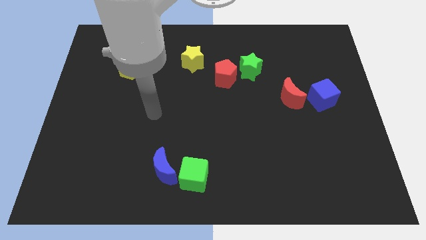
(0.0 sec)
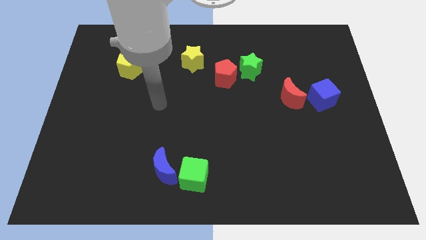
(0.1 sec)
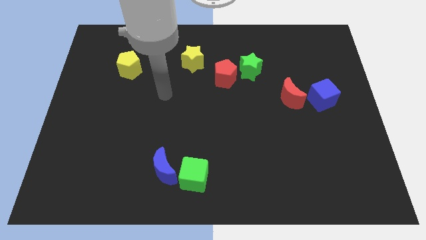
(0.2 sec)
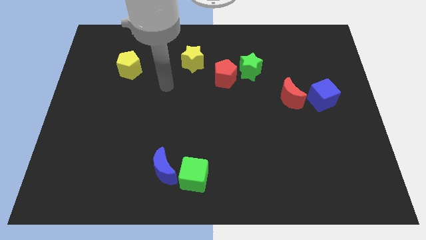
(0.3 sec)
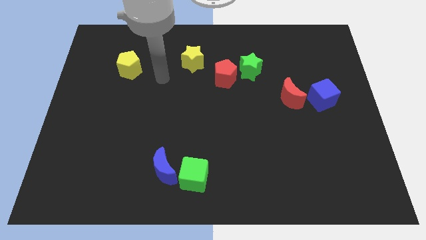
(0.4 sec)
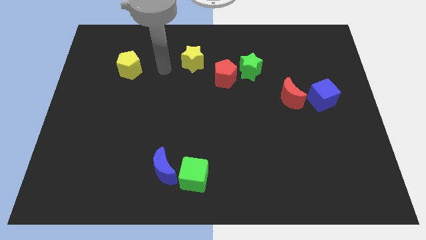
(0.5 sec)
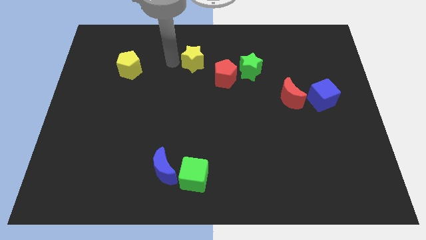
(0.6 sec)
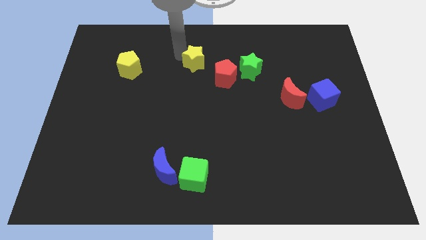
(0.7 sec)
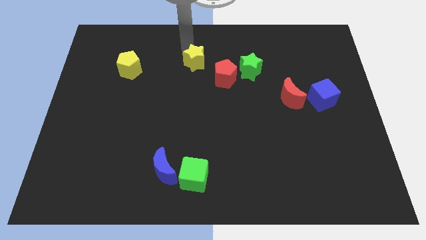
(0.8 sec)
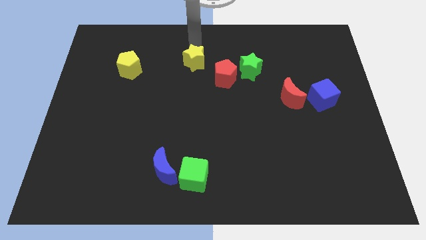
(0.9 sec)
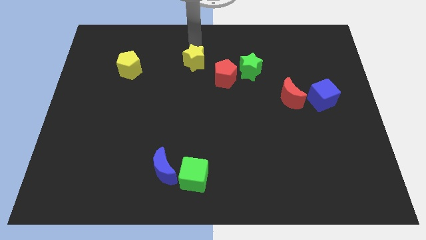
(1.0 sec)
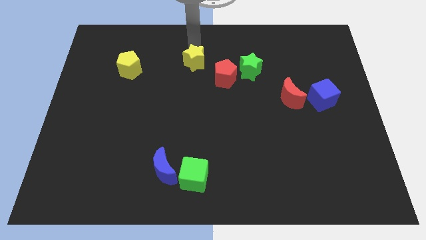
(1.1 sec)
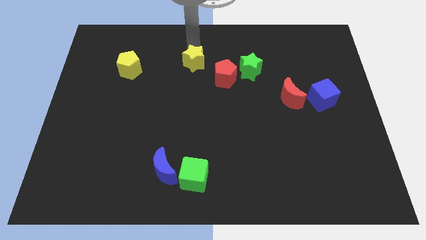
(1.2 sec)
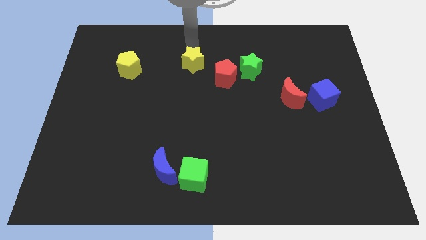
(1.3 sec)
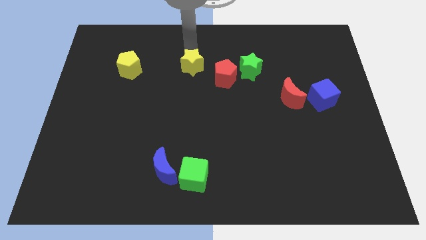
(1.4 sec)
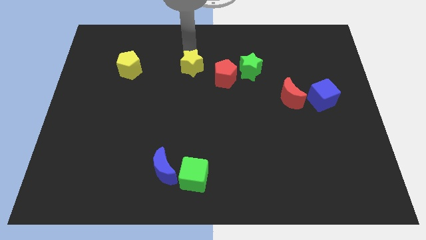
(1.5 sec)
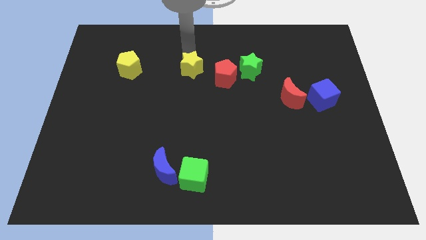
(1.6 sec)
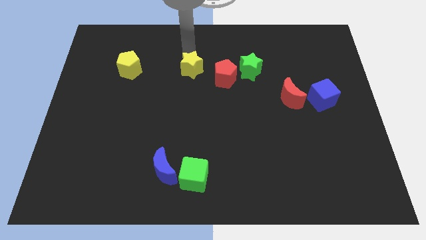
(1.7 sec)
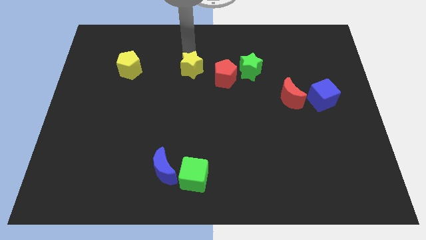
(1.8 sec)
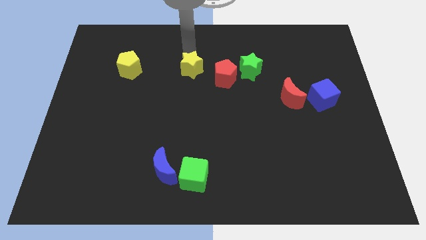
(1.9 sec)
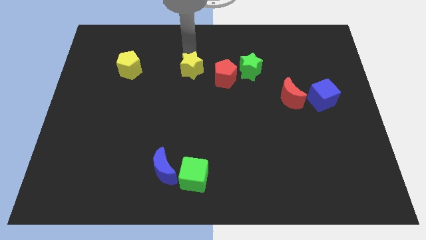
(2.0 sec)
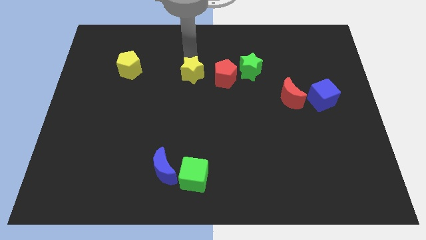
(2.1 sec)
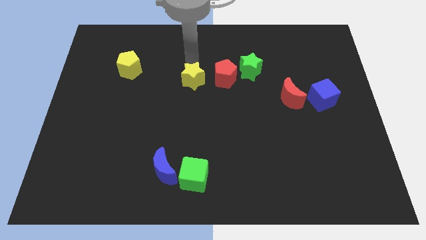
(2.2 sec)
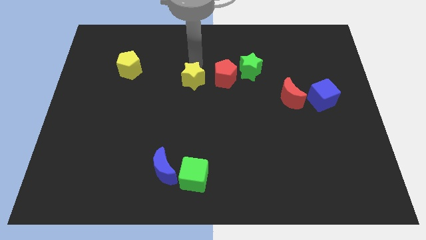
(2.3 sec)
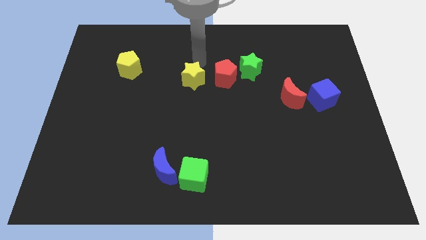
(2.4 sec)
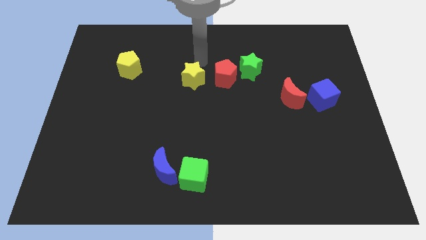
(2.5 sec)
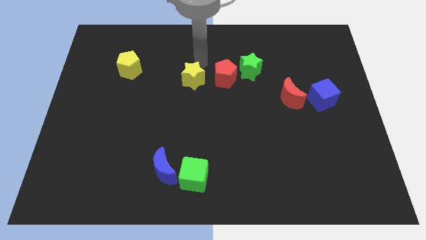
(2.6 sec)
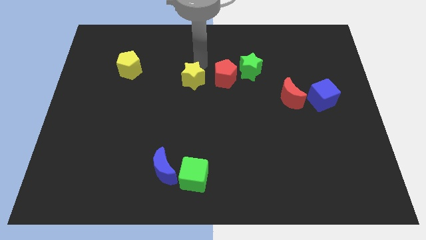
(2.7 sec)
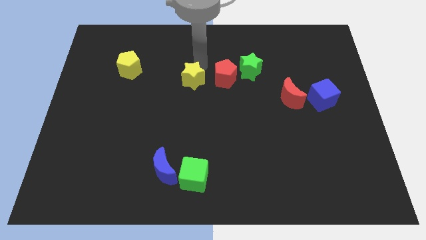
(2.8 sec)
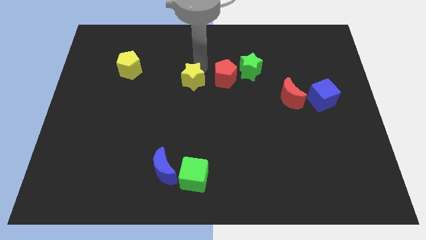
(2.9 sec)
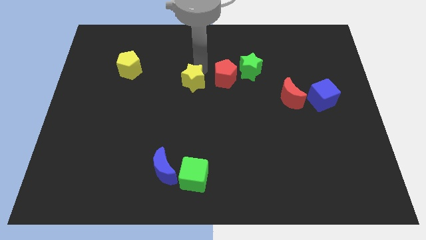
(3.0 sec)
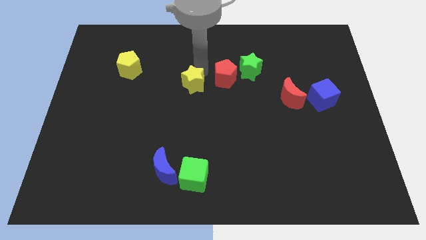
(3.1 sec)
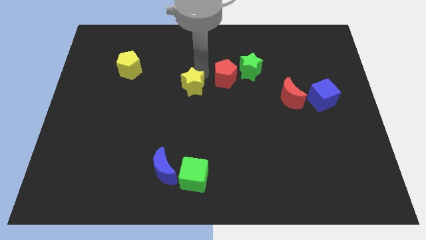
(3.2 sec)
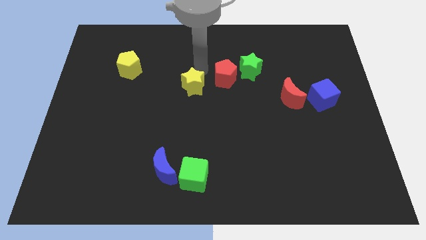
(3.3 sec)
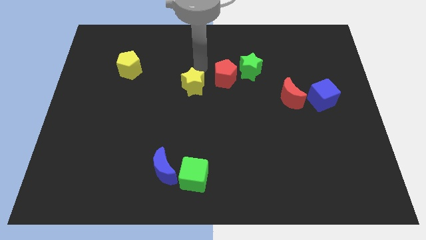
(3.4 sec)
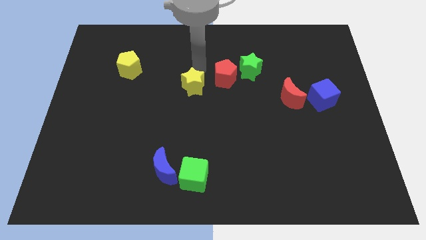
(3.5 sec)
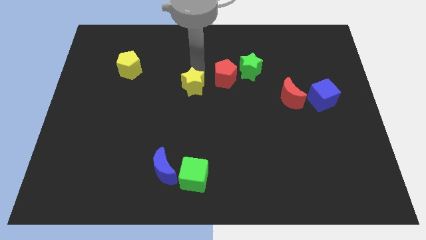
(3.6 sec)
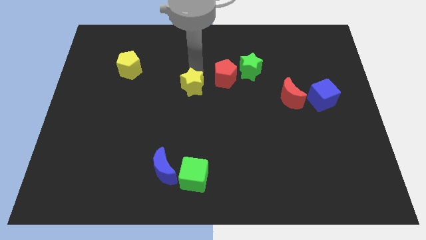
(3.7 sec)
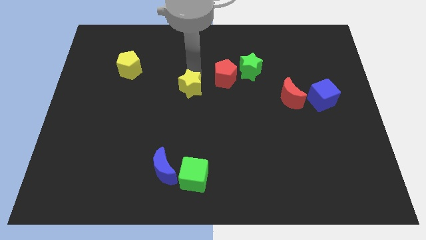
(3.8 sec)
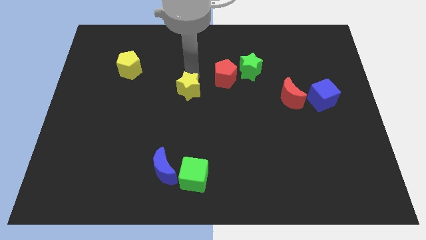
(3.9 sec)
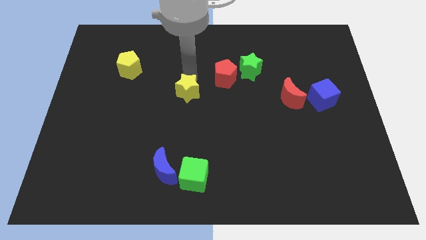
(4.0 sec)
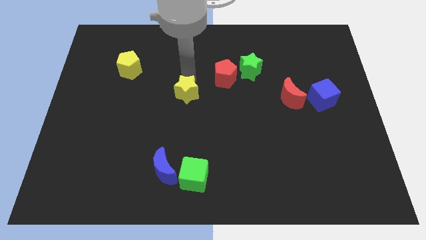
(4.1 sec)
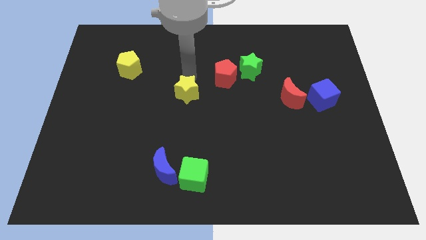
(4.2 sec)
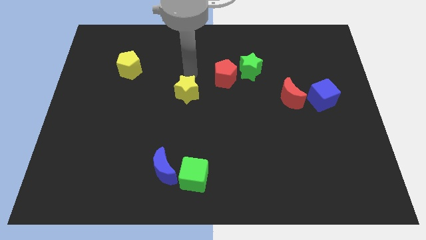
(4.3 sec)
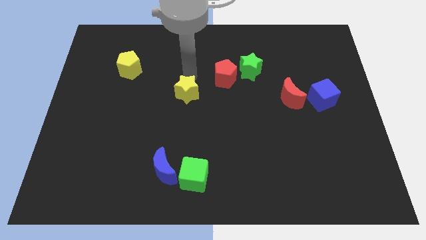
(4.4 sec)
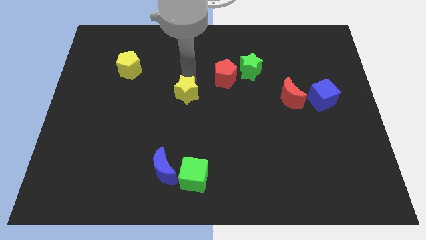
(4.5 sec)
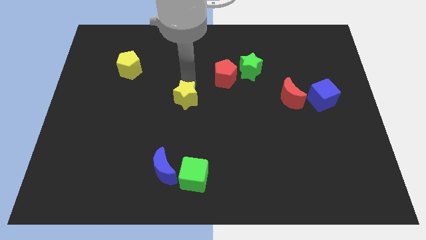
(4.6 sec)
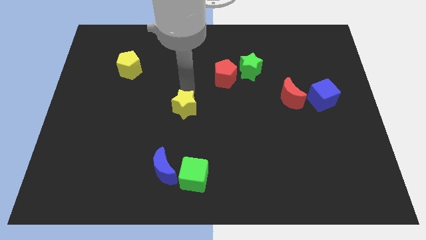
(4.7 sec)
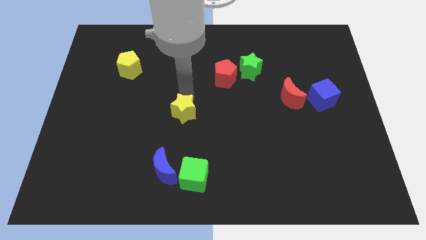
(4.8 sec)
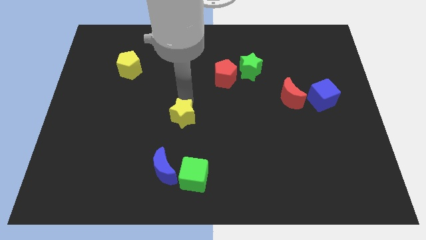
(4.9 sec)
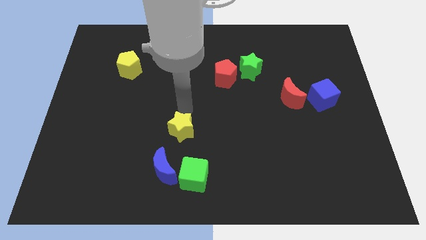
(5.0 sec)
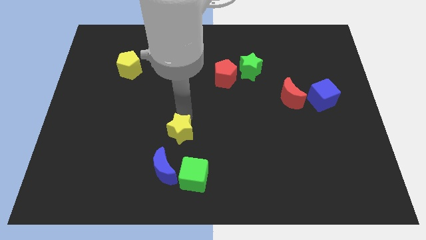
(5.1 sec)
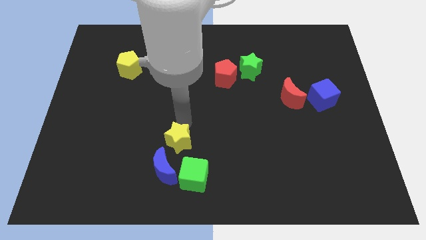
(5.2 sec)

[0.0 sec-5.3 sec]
push the yellow star diagonally up and to the left of the green cube

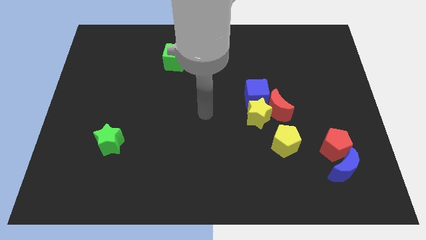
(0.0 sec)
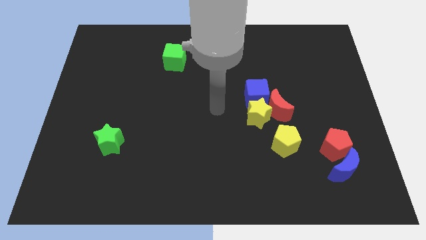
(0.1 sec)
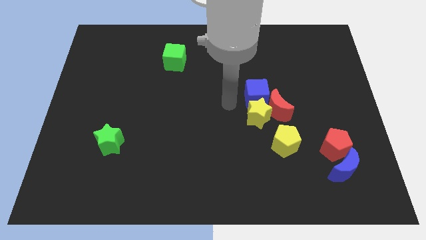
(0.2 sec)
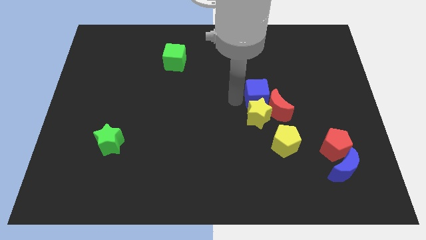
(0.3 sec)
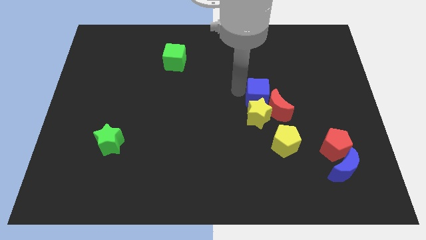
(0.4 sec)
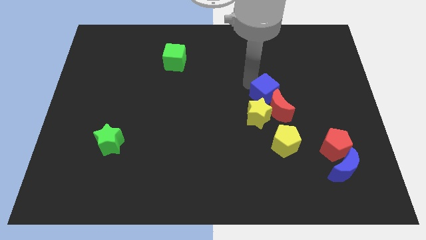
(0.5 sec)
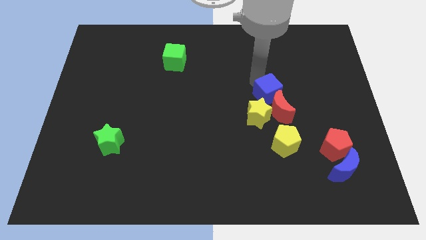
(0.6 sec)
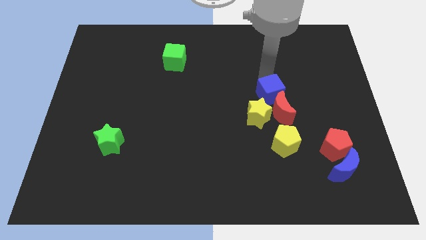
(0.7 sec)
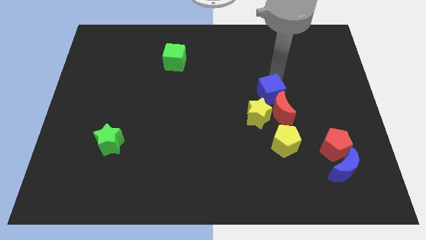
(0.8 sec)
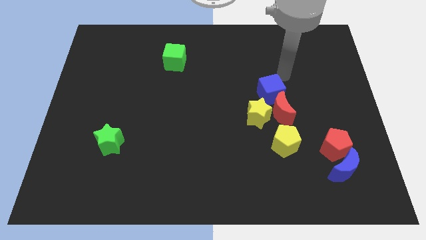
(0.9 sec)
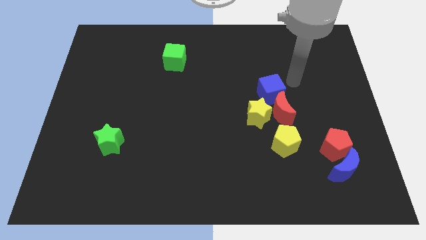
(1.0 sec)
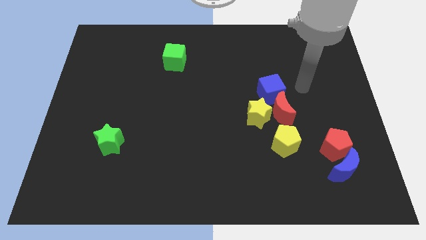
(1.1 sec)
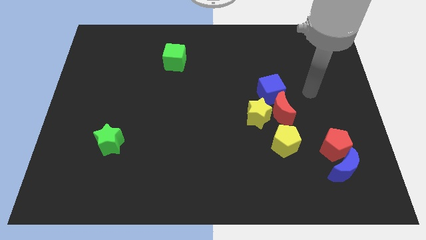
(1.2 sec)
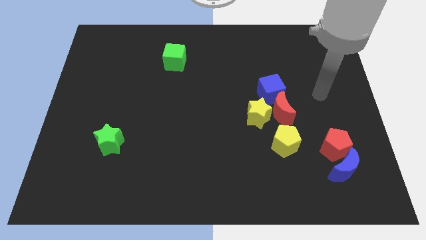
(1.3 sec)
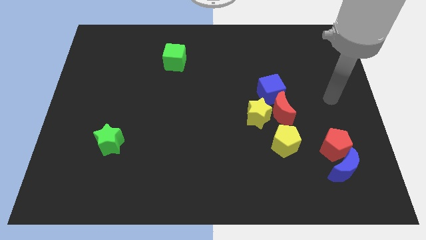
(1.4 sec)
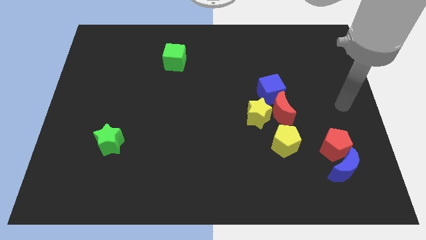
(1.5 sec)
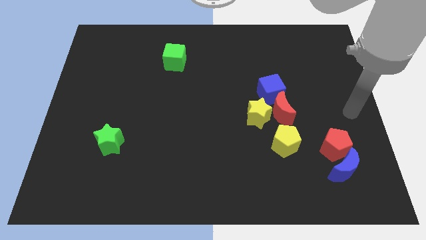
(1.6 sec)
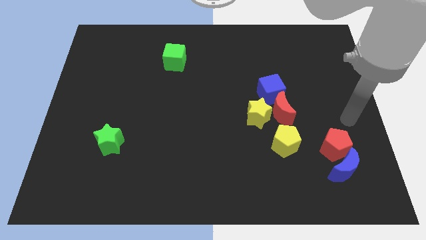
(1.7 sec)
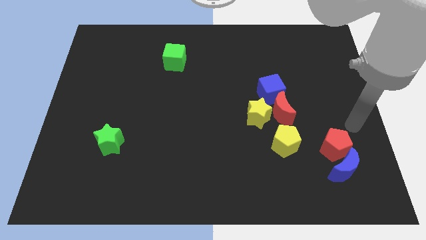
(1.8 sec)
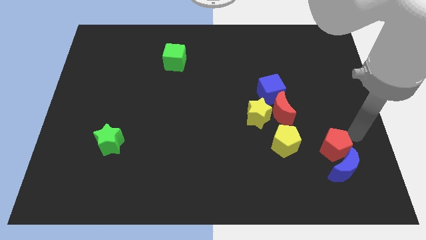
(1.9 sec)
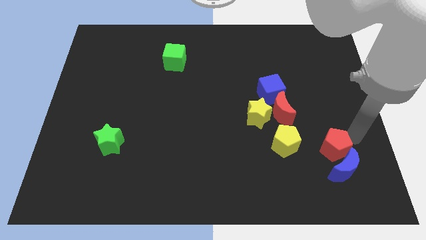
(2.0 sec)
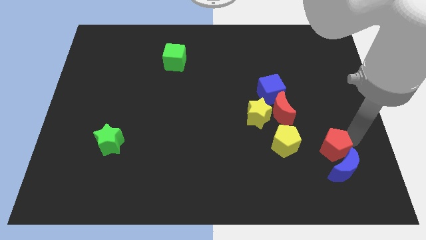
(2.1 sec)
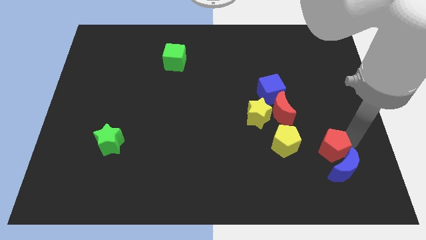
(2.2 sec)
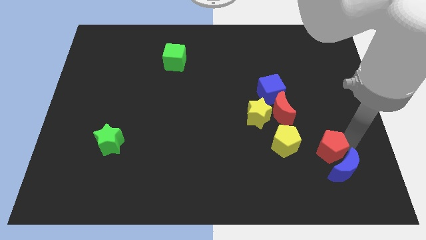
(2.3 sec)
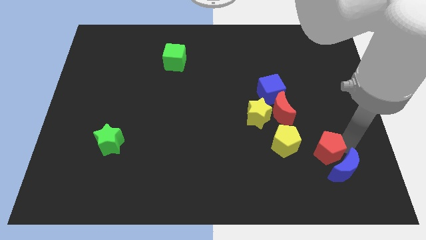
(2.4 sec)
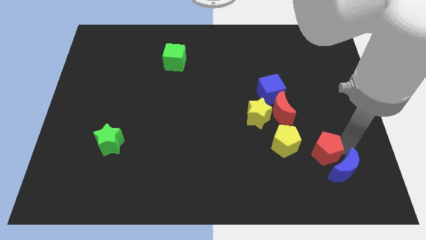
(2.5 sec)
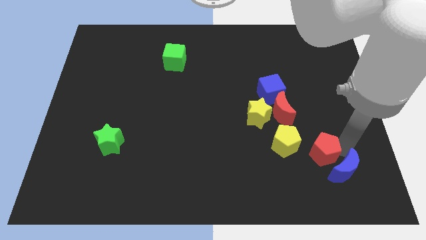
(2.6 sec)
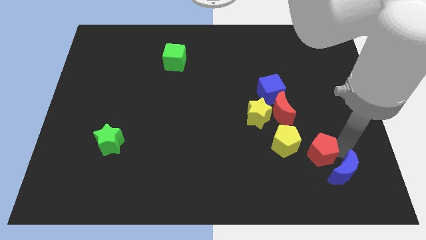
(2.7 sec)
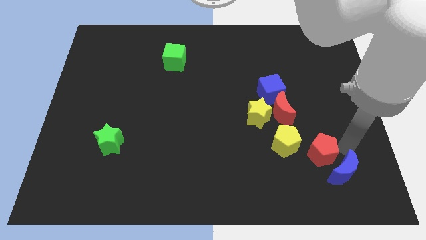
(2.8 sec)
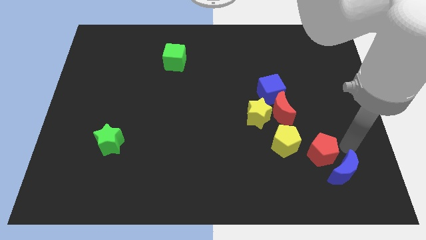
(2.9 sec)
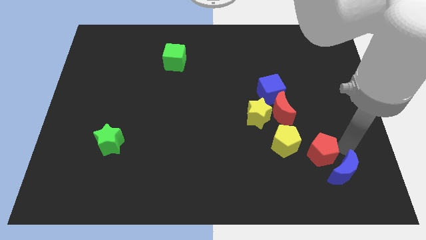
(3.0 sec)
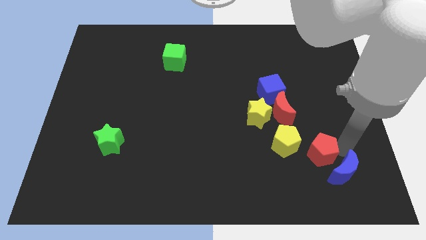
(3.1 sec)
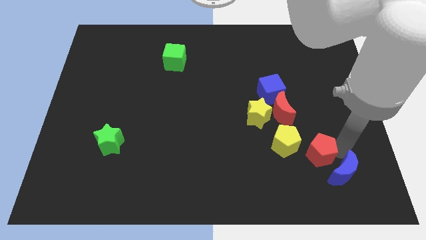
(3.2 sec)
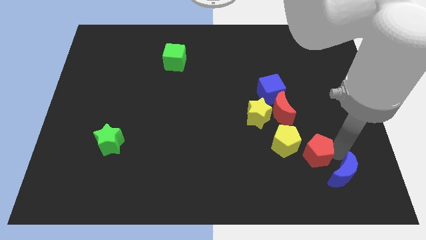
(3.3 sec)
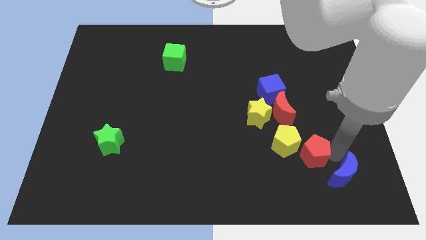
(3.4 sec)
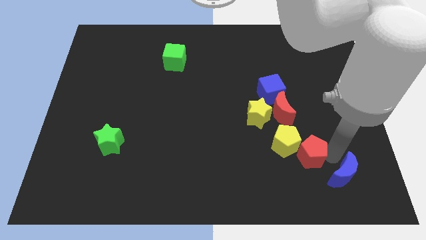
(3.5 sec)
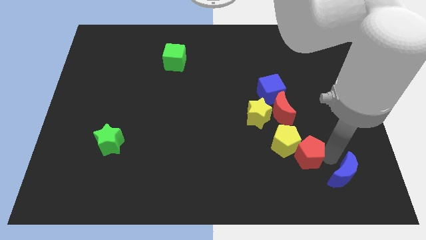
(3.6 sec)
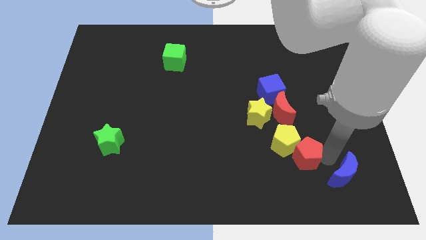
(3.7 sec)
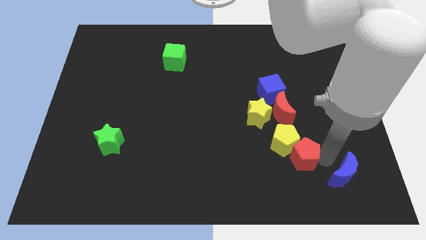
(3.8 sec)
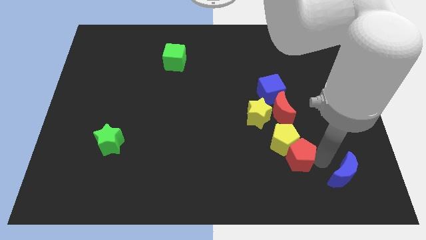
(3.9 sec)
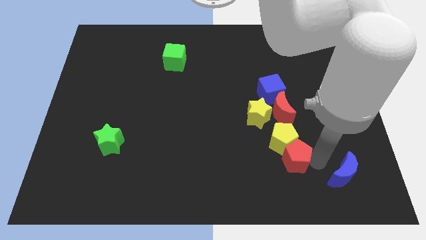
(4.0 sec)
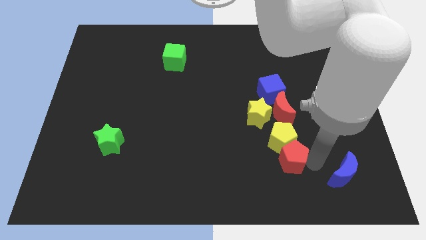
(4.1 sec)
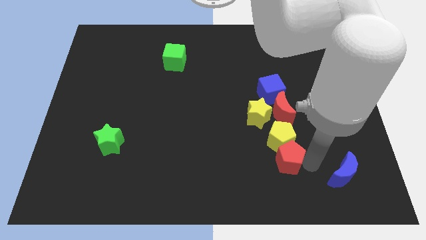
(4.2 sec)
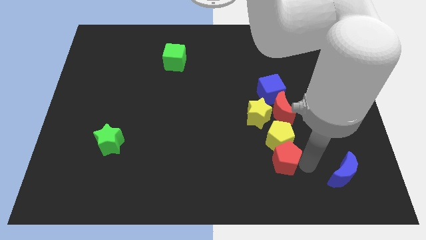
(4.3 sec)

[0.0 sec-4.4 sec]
move the red pentagon to the bottom of the yellow star
